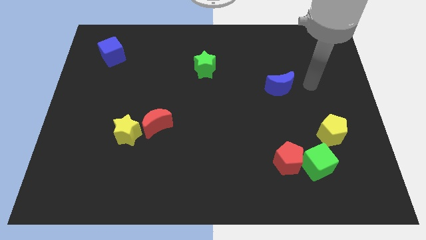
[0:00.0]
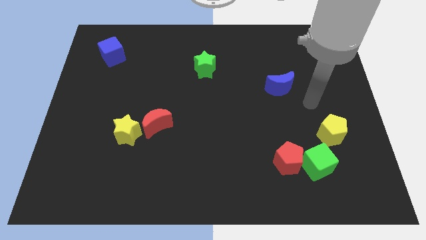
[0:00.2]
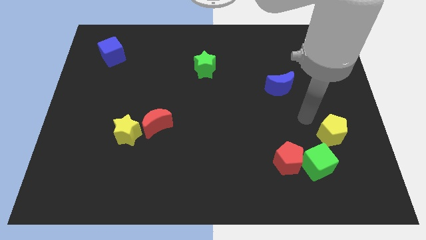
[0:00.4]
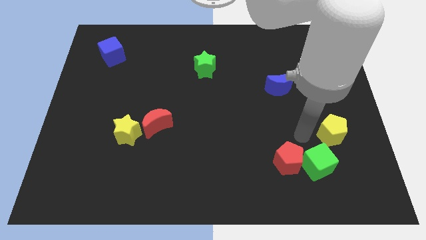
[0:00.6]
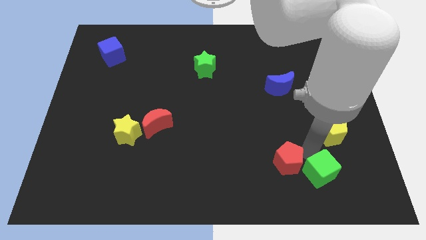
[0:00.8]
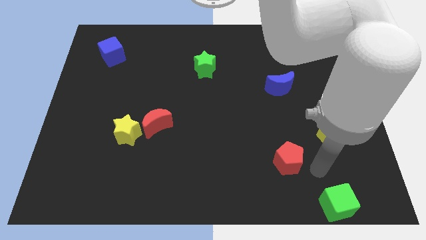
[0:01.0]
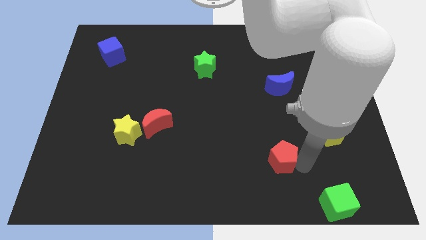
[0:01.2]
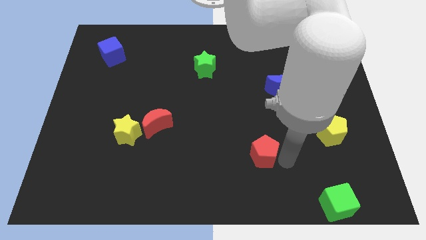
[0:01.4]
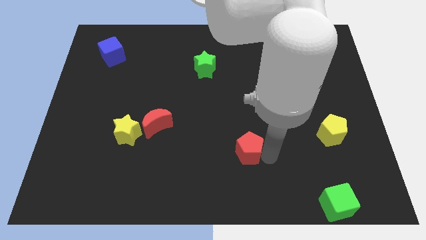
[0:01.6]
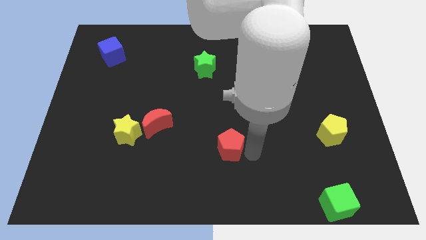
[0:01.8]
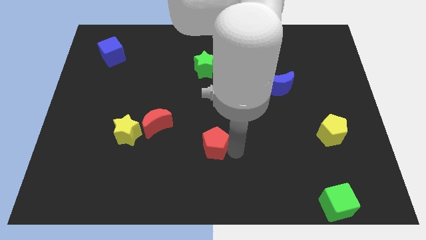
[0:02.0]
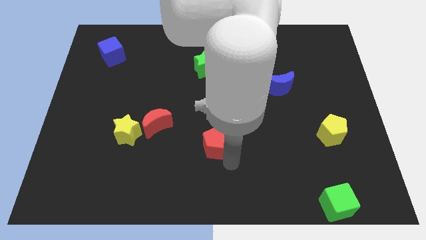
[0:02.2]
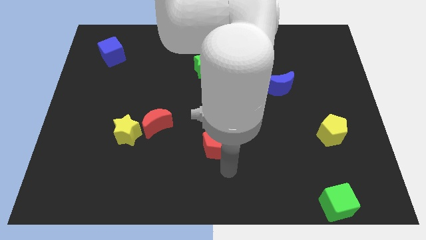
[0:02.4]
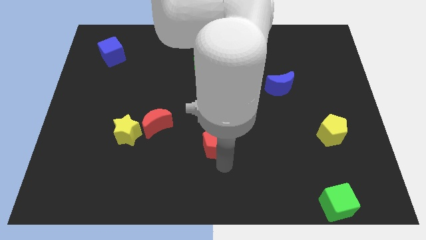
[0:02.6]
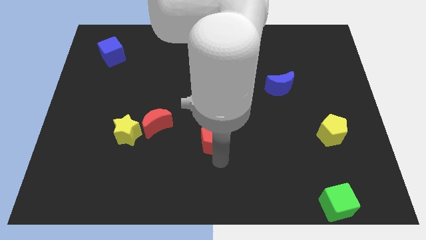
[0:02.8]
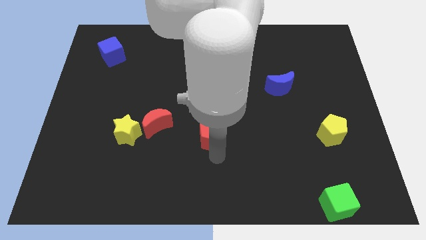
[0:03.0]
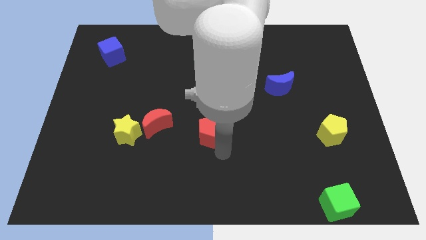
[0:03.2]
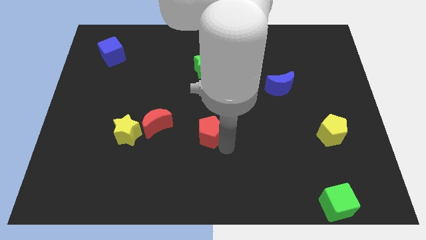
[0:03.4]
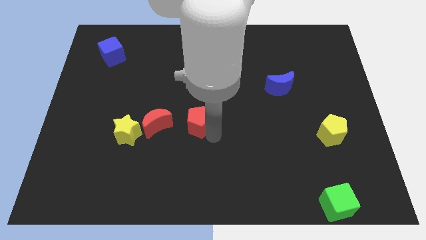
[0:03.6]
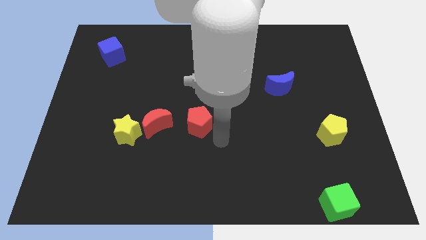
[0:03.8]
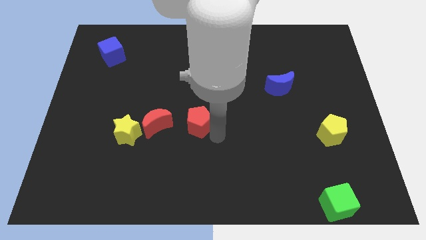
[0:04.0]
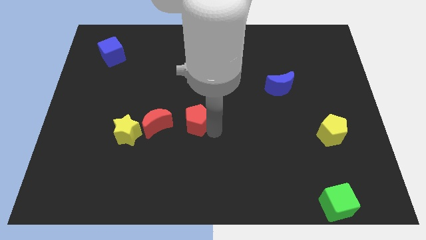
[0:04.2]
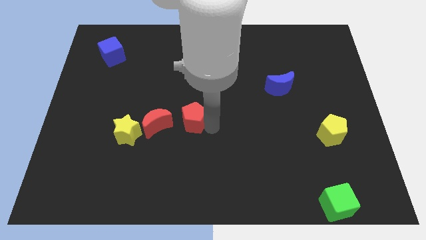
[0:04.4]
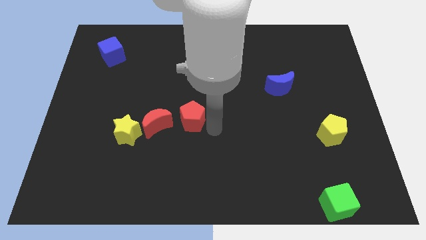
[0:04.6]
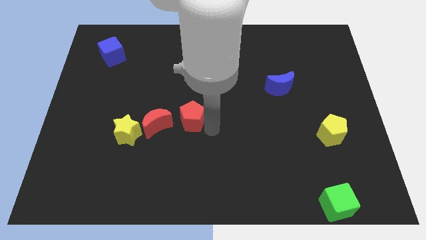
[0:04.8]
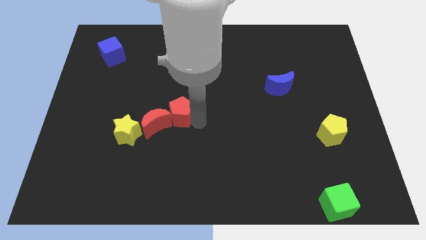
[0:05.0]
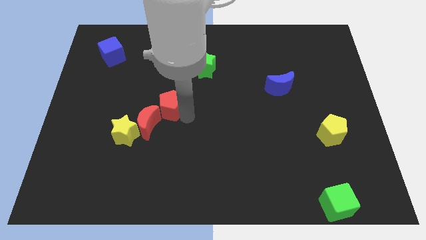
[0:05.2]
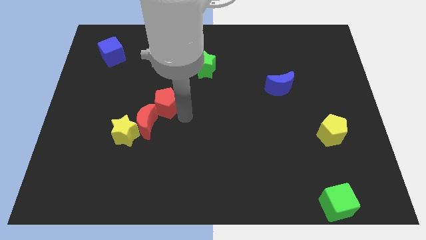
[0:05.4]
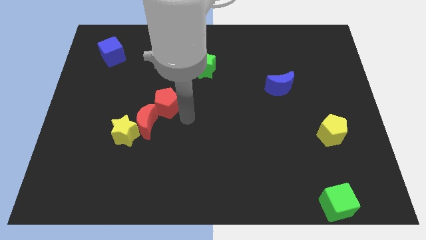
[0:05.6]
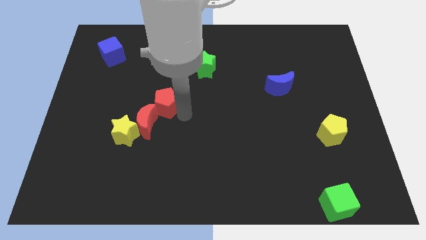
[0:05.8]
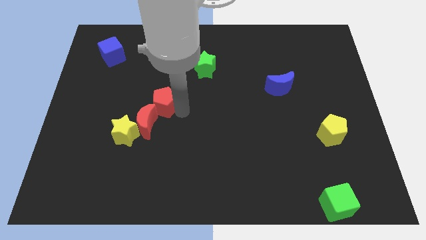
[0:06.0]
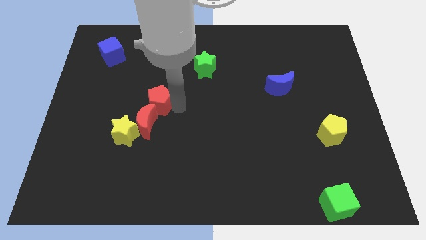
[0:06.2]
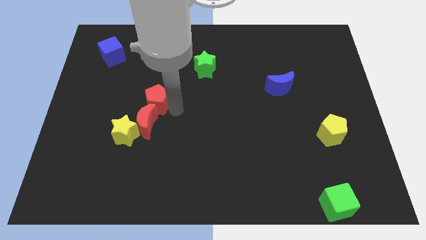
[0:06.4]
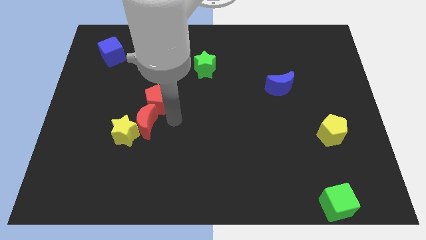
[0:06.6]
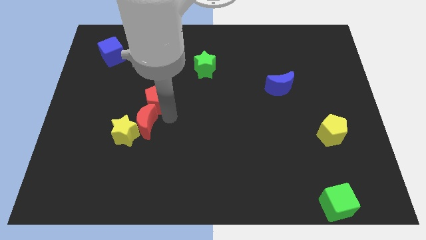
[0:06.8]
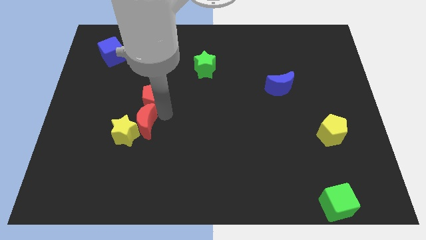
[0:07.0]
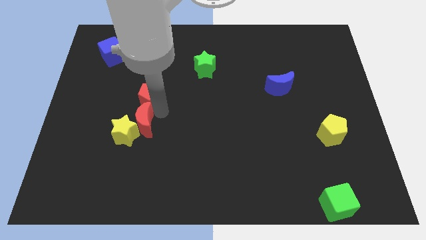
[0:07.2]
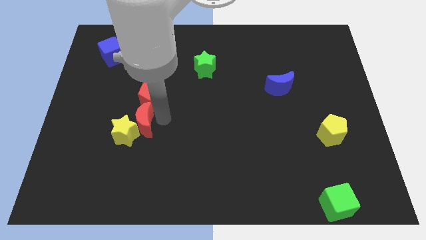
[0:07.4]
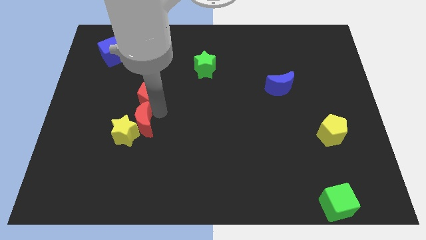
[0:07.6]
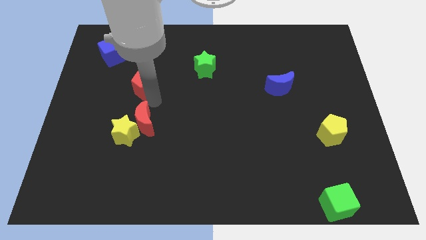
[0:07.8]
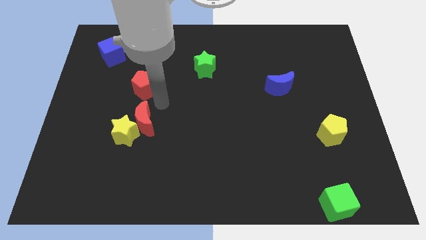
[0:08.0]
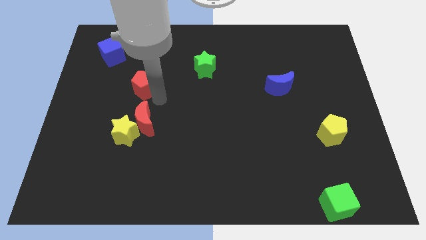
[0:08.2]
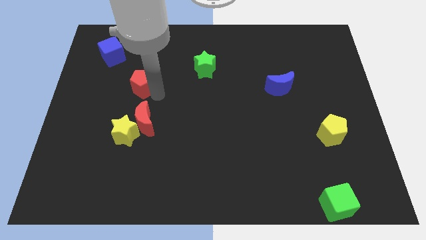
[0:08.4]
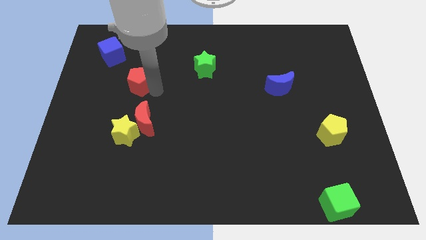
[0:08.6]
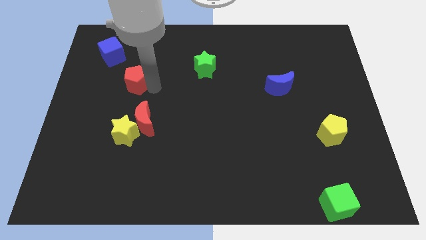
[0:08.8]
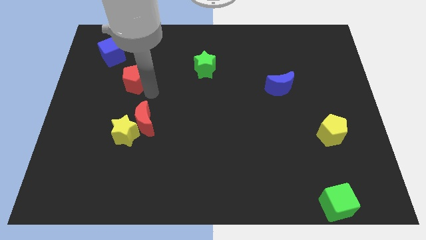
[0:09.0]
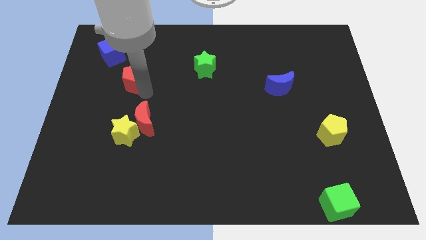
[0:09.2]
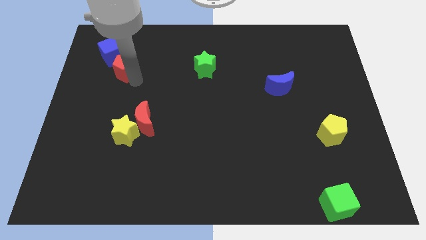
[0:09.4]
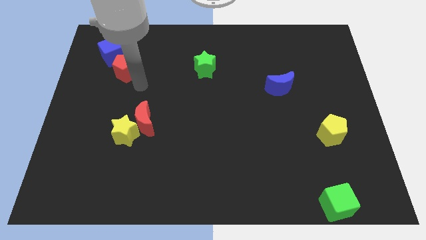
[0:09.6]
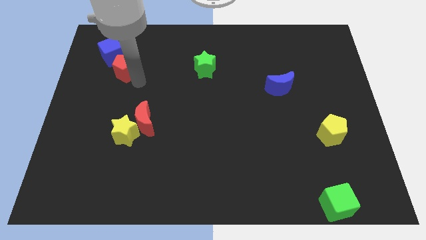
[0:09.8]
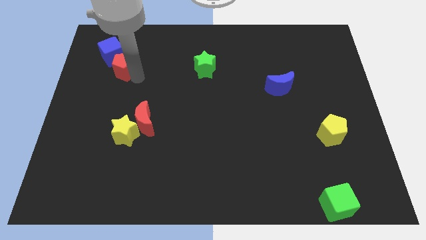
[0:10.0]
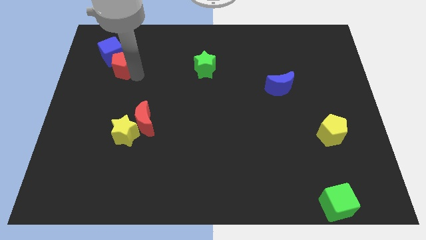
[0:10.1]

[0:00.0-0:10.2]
push the red pentagon next to the blue cube

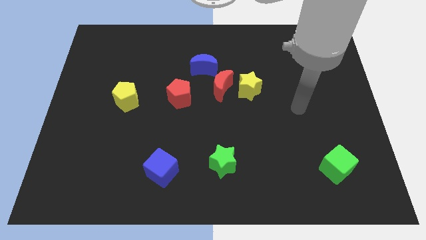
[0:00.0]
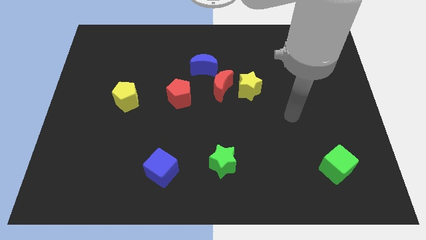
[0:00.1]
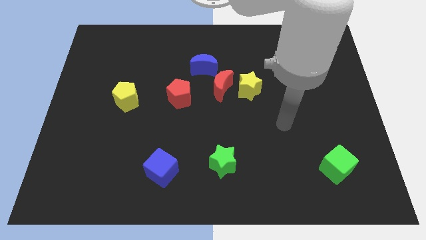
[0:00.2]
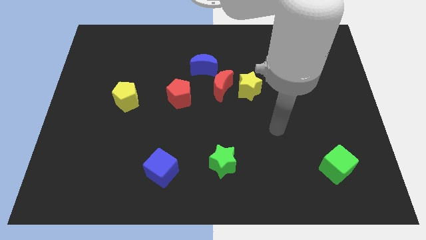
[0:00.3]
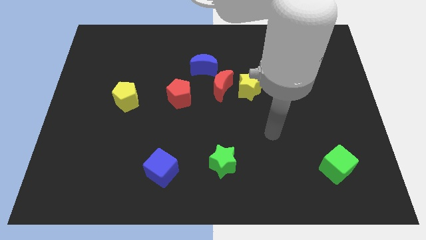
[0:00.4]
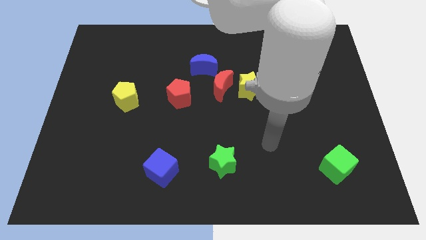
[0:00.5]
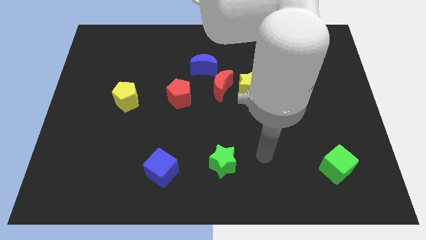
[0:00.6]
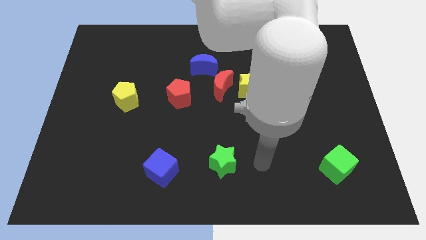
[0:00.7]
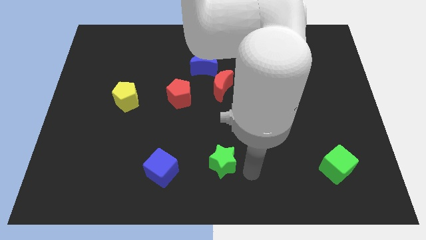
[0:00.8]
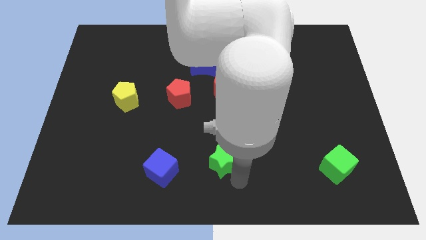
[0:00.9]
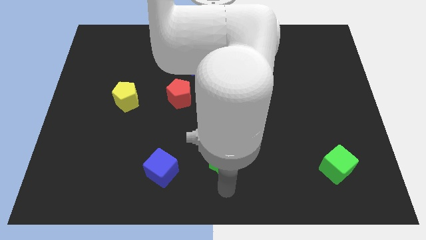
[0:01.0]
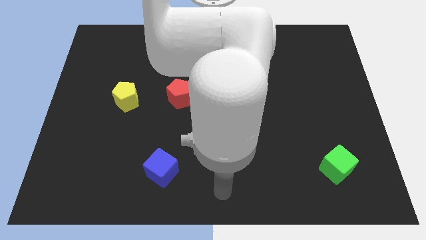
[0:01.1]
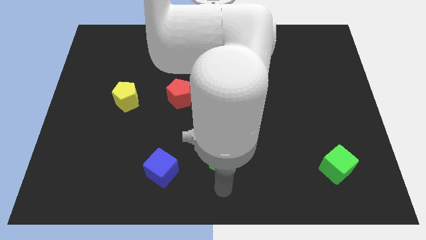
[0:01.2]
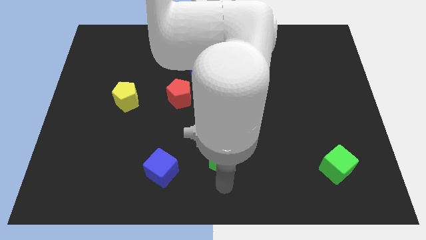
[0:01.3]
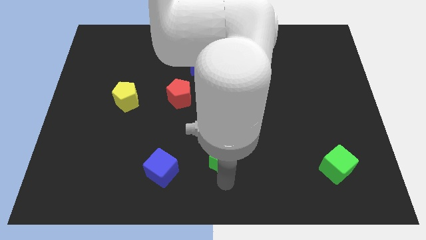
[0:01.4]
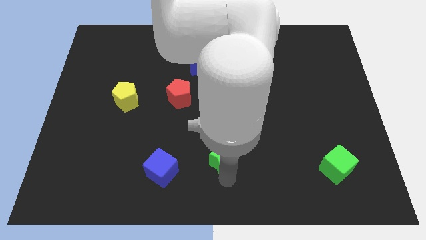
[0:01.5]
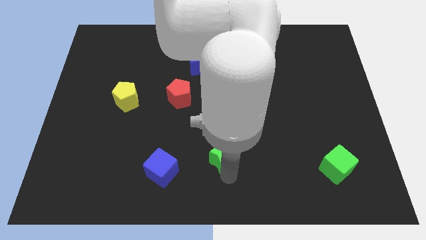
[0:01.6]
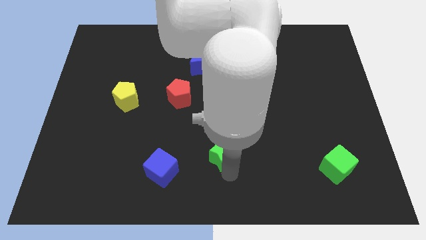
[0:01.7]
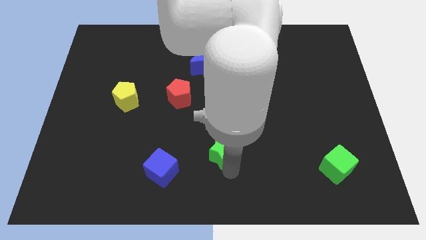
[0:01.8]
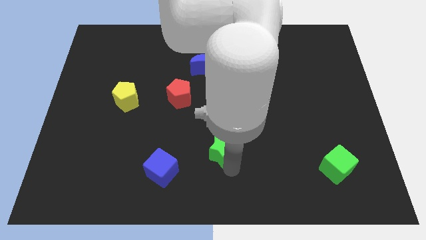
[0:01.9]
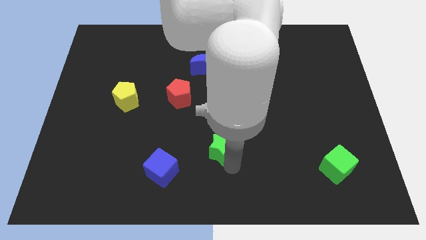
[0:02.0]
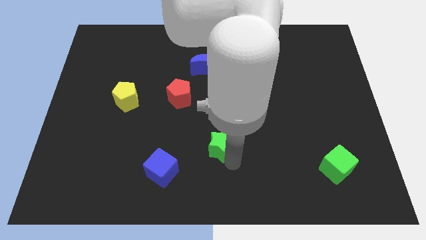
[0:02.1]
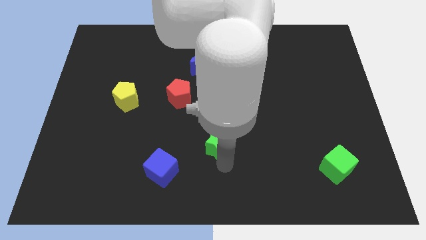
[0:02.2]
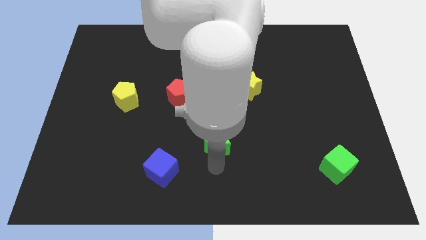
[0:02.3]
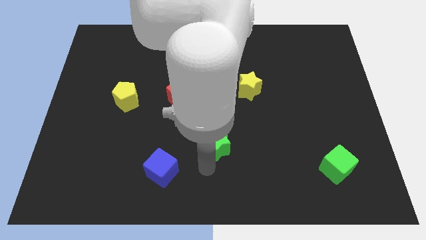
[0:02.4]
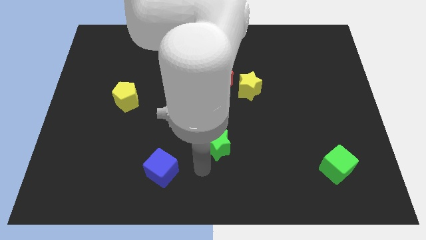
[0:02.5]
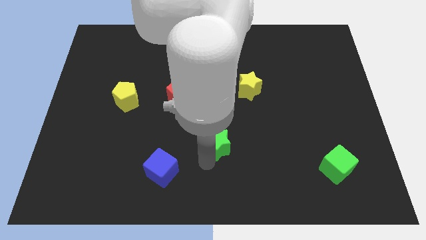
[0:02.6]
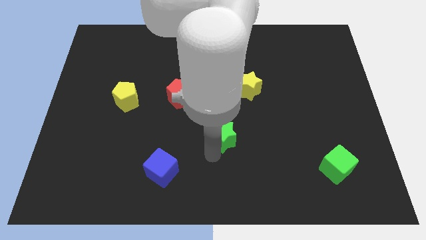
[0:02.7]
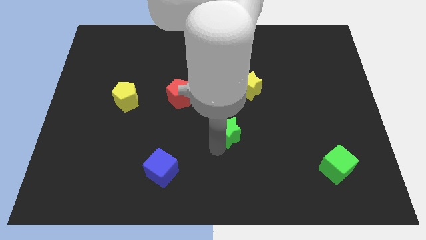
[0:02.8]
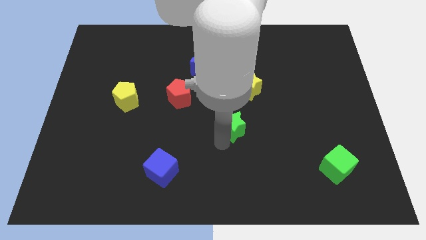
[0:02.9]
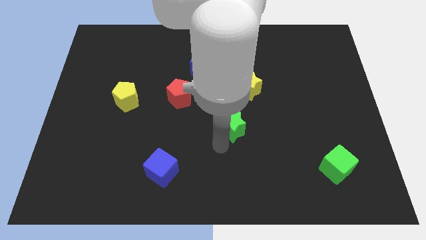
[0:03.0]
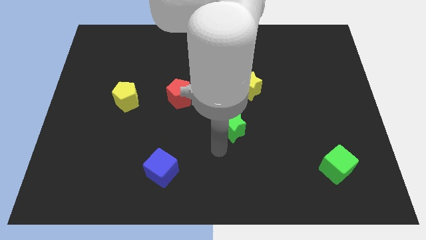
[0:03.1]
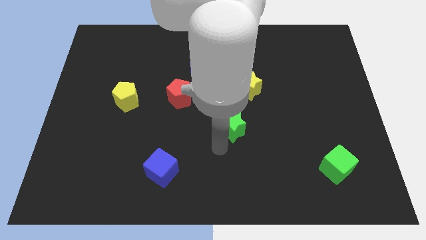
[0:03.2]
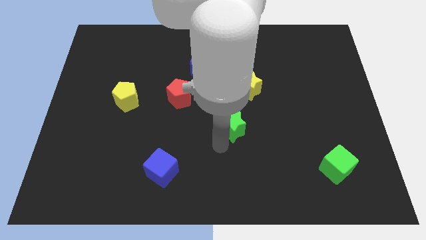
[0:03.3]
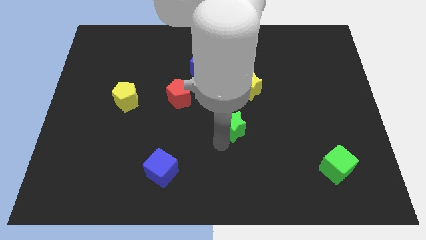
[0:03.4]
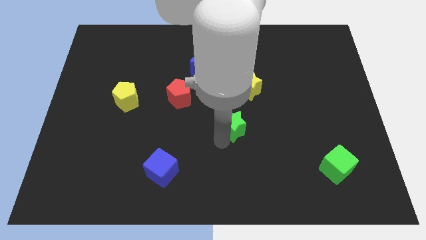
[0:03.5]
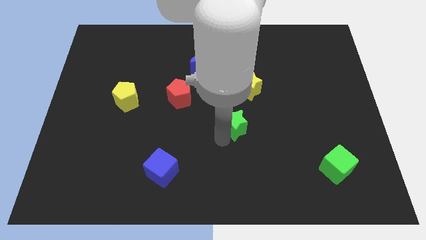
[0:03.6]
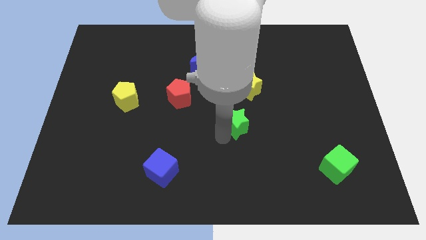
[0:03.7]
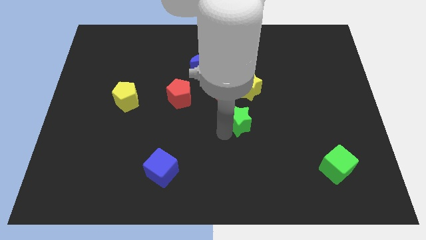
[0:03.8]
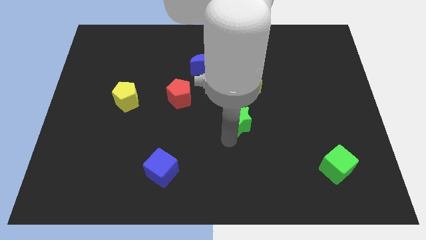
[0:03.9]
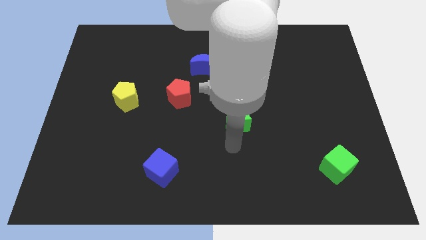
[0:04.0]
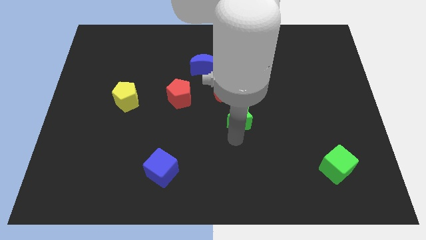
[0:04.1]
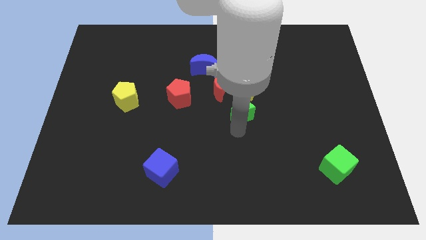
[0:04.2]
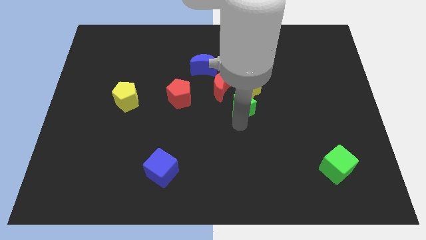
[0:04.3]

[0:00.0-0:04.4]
slide the green star close to the yellow star
